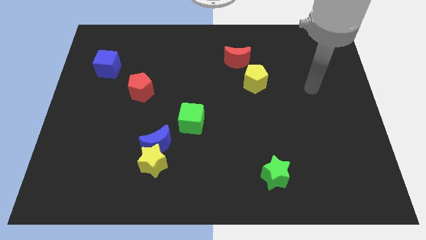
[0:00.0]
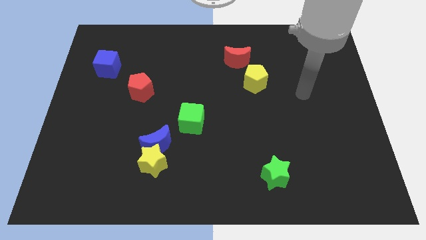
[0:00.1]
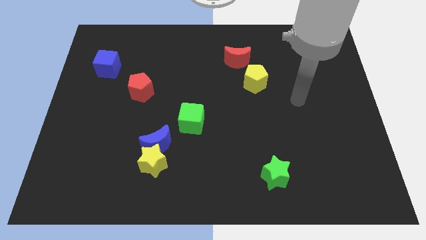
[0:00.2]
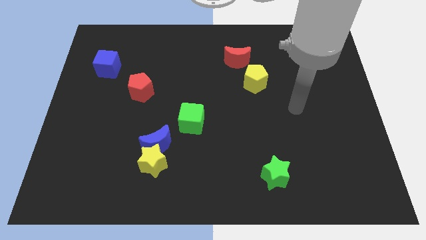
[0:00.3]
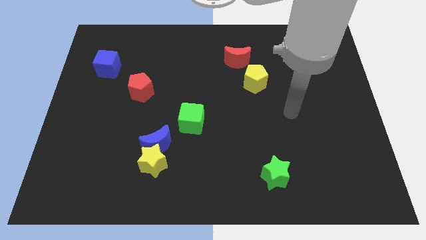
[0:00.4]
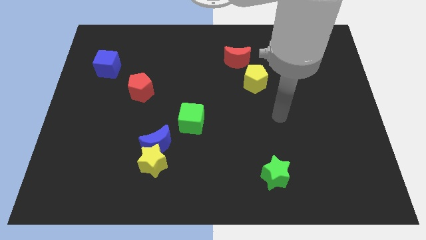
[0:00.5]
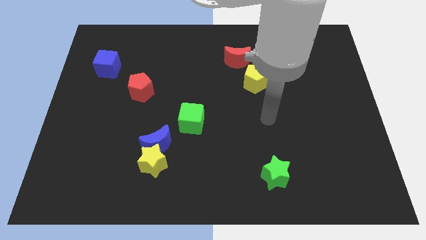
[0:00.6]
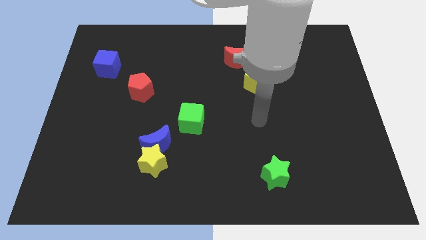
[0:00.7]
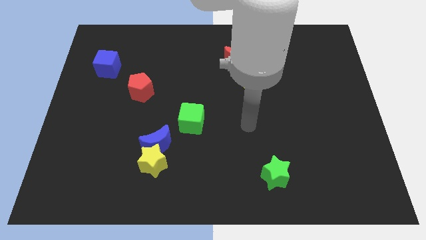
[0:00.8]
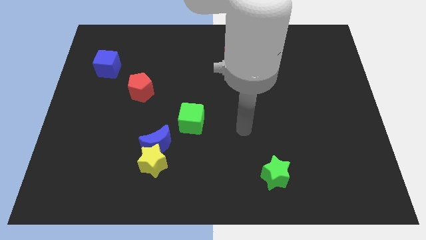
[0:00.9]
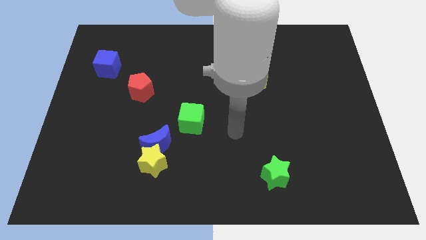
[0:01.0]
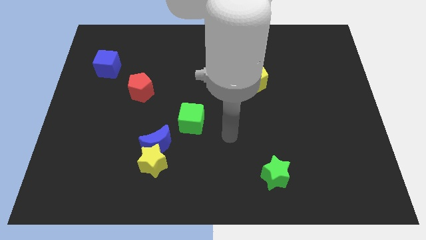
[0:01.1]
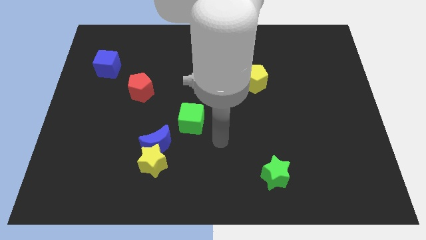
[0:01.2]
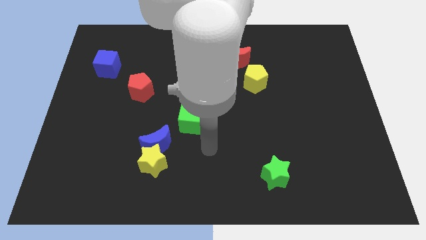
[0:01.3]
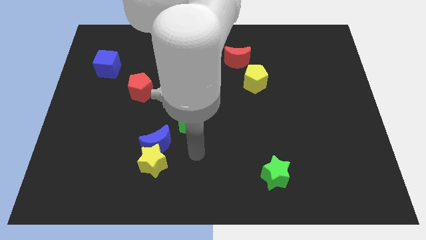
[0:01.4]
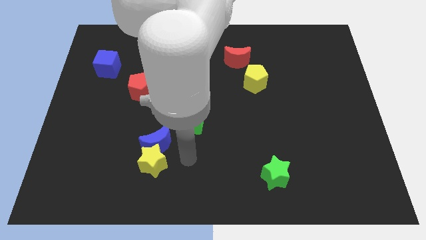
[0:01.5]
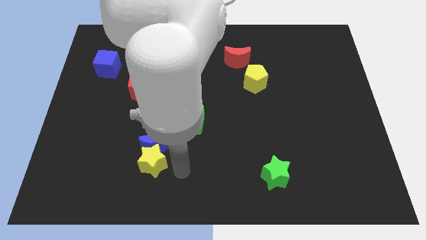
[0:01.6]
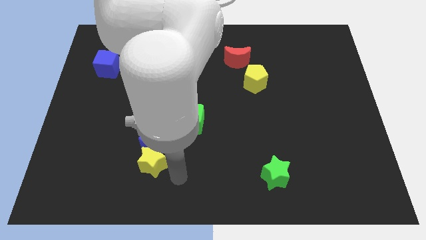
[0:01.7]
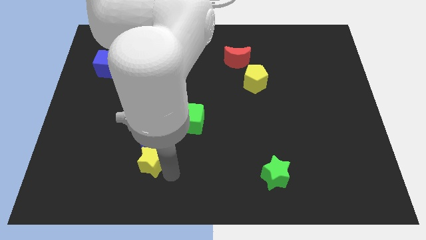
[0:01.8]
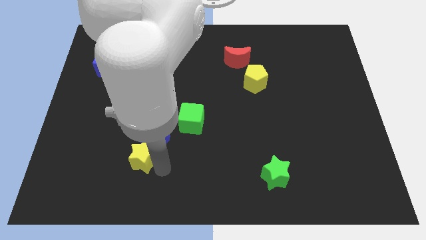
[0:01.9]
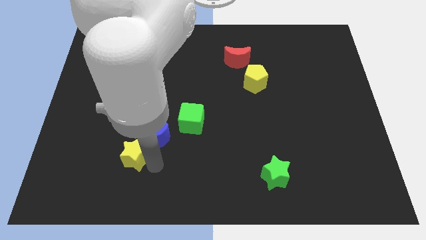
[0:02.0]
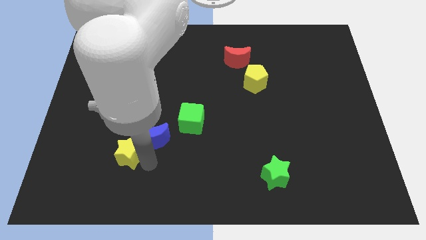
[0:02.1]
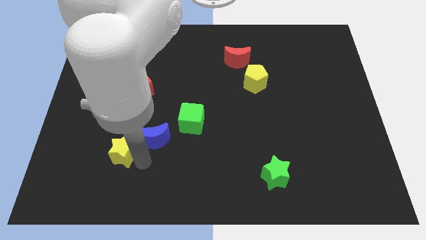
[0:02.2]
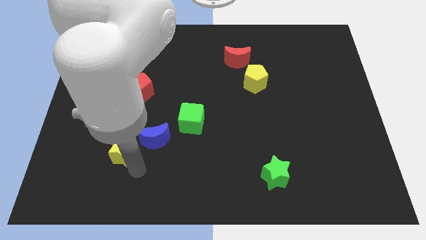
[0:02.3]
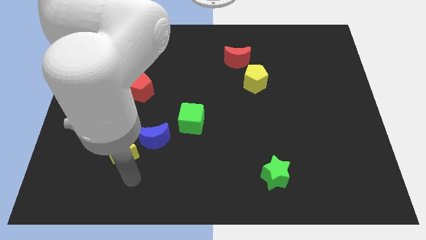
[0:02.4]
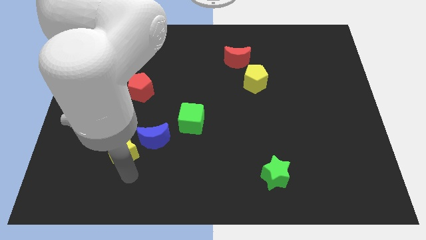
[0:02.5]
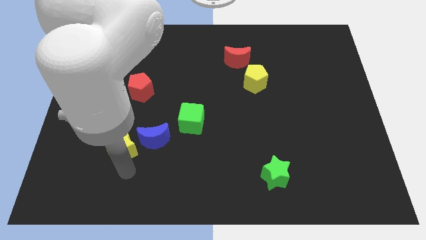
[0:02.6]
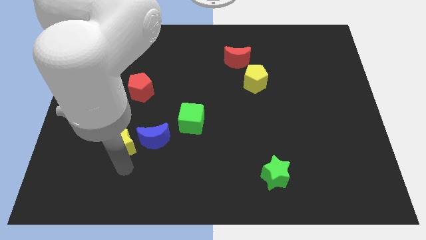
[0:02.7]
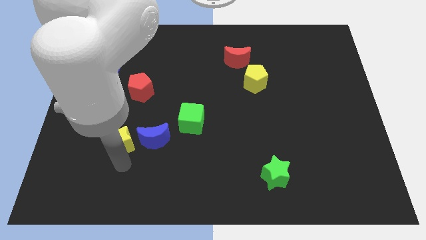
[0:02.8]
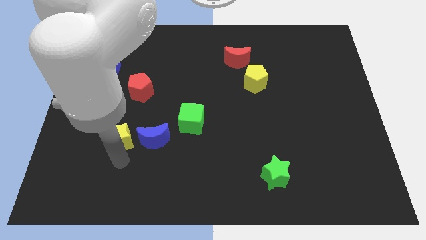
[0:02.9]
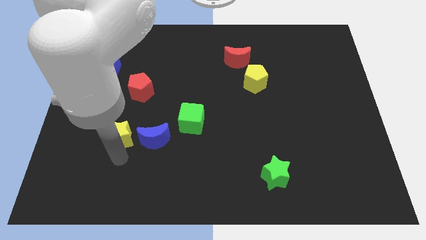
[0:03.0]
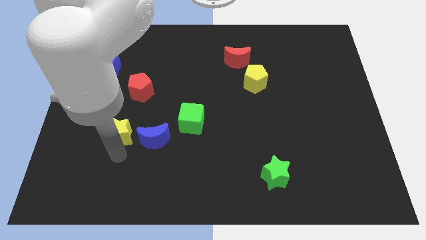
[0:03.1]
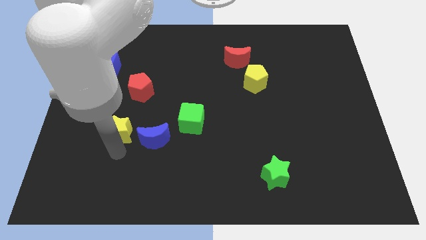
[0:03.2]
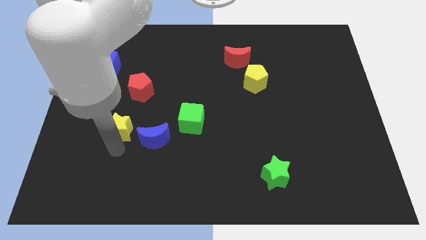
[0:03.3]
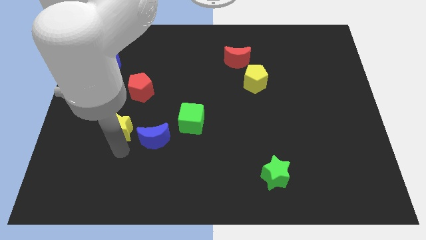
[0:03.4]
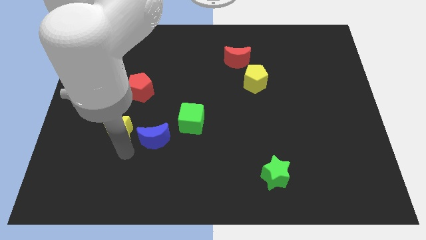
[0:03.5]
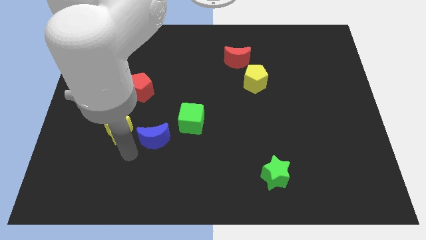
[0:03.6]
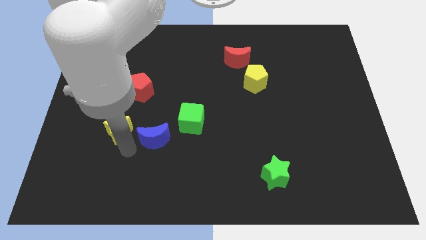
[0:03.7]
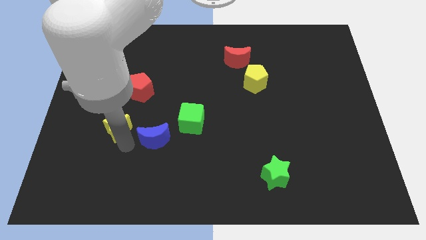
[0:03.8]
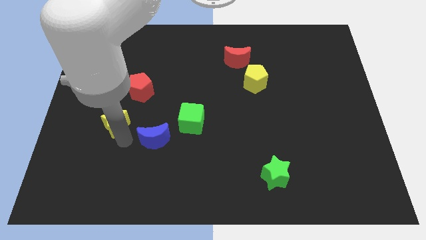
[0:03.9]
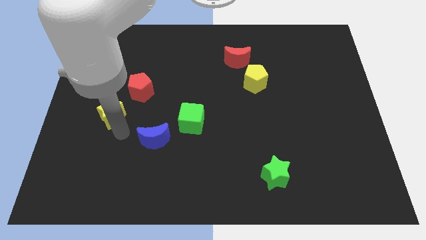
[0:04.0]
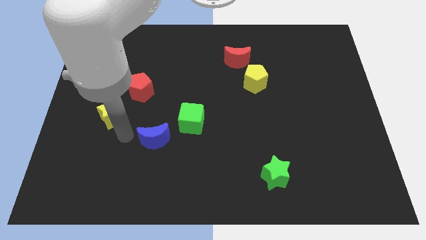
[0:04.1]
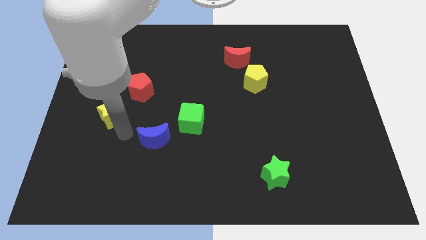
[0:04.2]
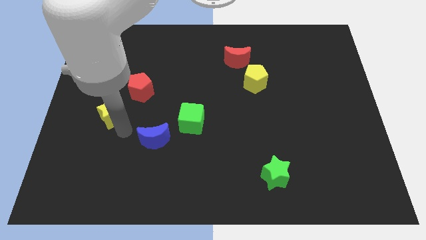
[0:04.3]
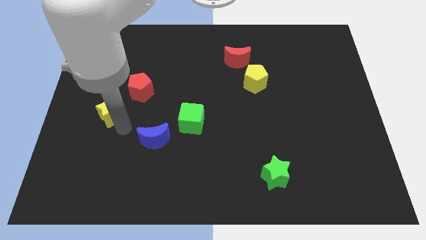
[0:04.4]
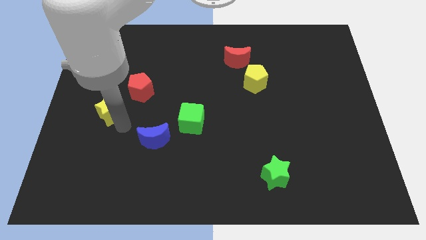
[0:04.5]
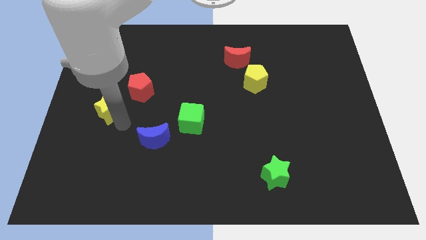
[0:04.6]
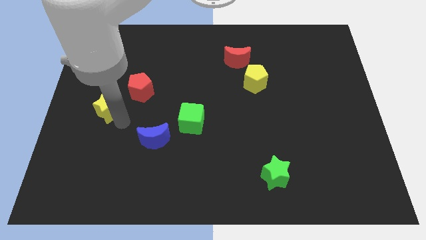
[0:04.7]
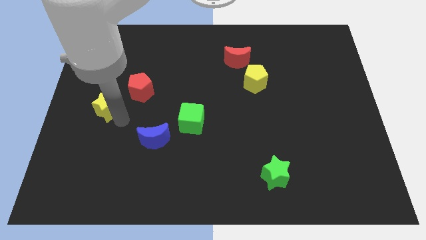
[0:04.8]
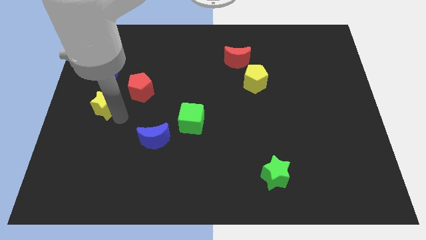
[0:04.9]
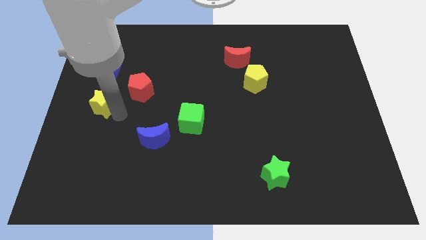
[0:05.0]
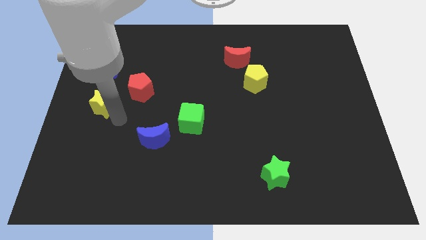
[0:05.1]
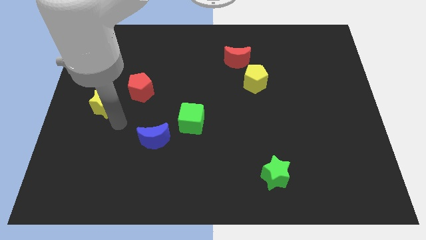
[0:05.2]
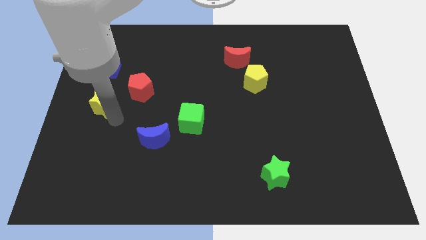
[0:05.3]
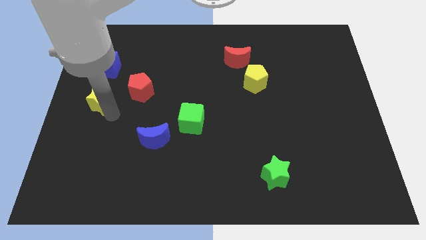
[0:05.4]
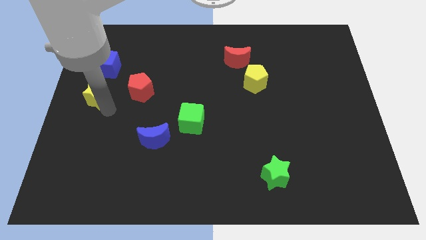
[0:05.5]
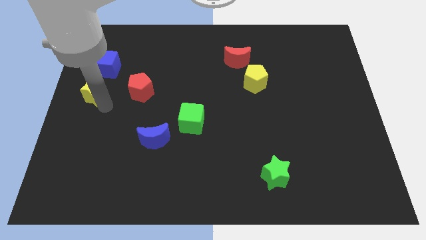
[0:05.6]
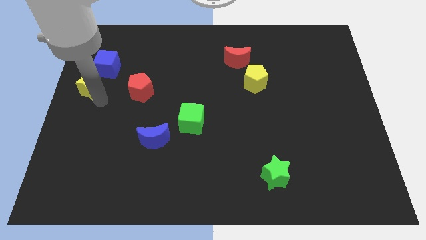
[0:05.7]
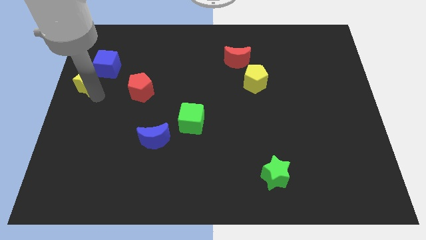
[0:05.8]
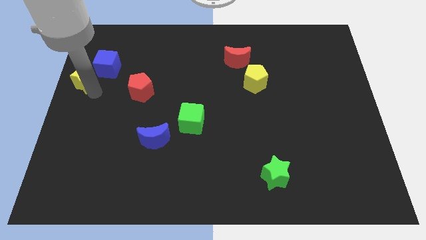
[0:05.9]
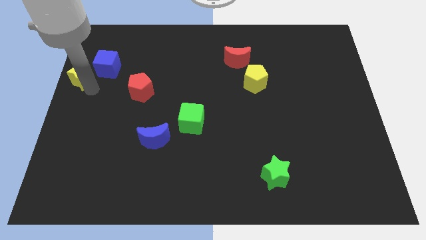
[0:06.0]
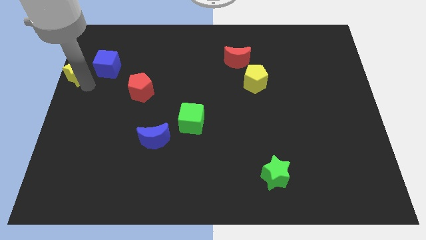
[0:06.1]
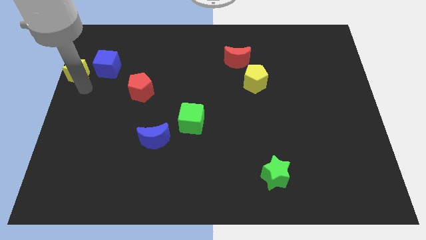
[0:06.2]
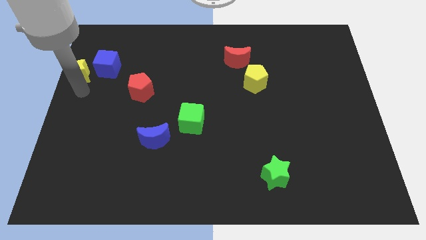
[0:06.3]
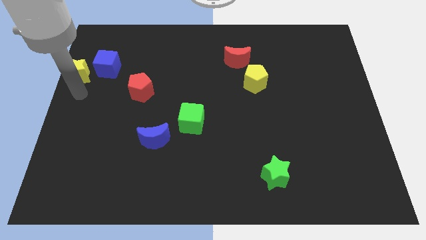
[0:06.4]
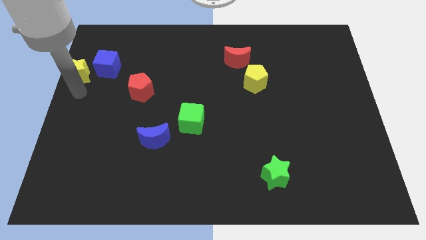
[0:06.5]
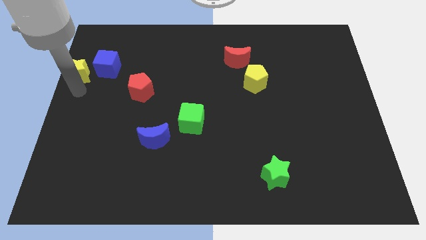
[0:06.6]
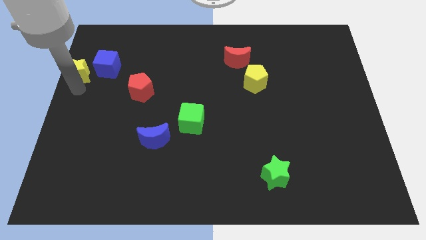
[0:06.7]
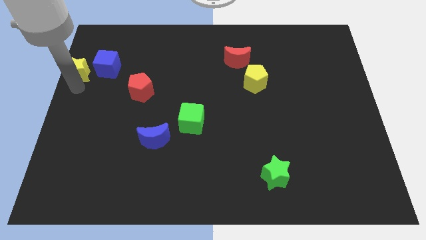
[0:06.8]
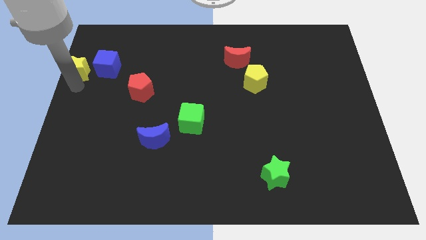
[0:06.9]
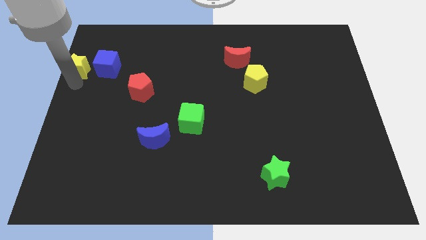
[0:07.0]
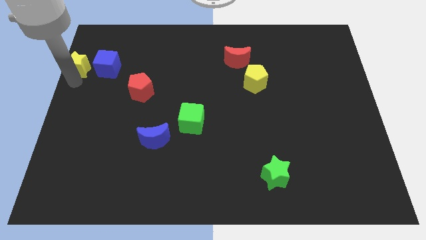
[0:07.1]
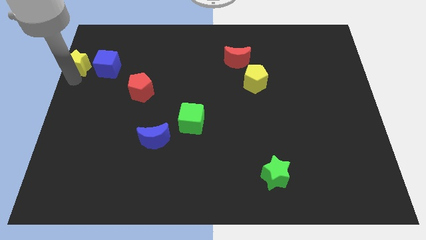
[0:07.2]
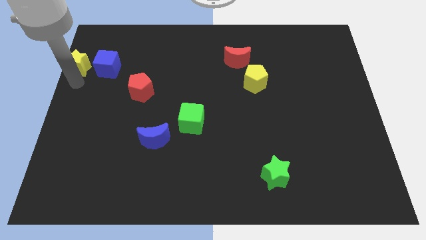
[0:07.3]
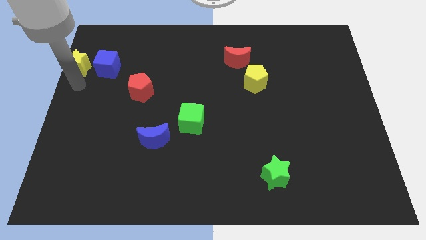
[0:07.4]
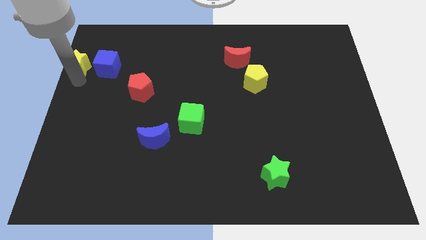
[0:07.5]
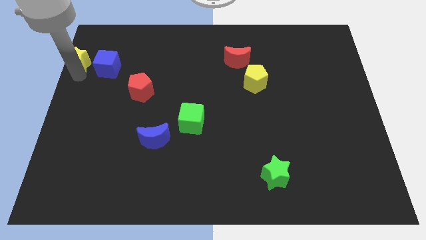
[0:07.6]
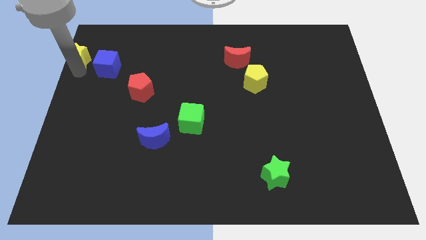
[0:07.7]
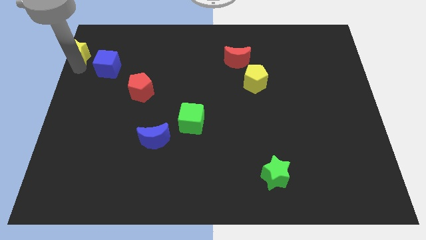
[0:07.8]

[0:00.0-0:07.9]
push the yellow star to the top left corner
